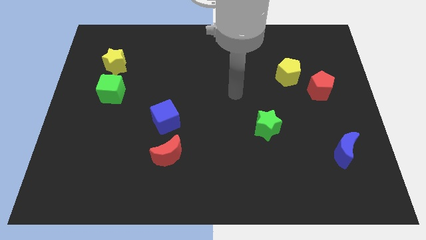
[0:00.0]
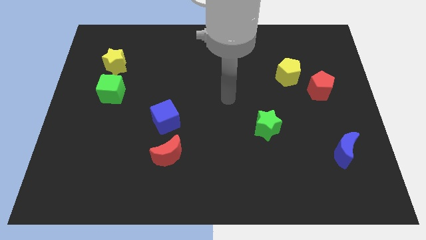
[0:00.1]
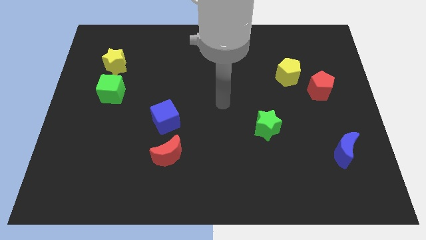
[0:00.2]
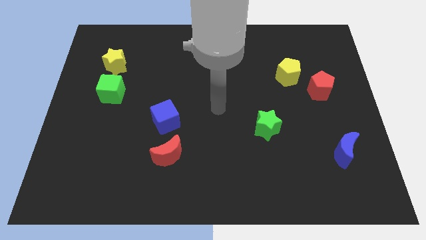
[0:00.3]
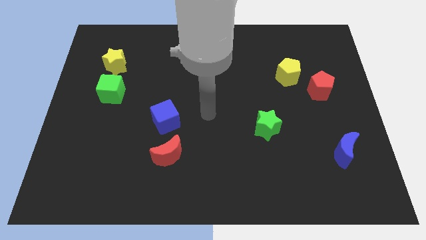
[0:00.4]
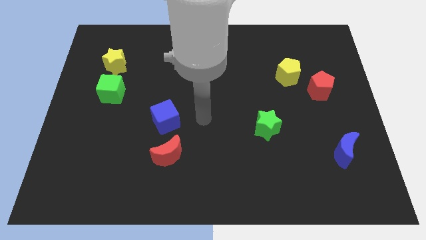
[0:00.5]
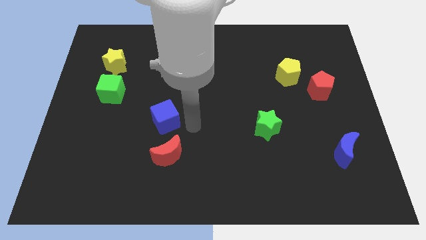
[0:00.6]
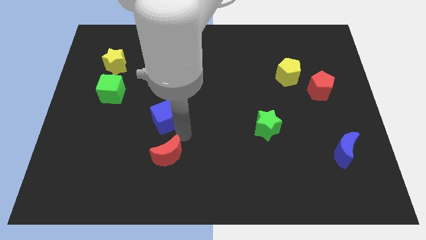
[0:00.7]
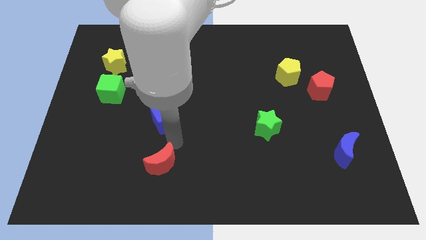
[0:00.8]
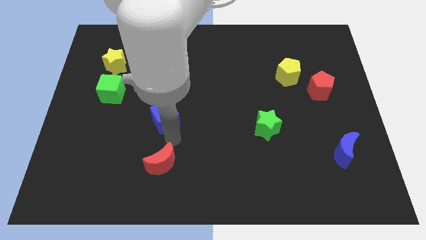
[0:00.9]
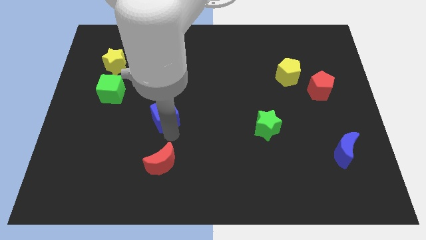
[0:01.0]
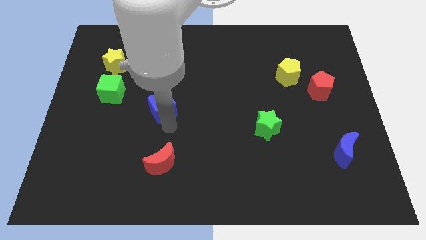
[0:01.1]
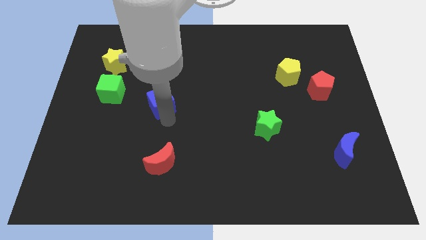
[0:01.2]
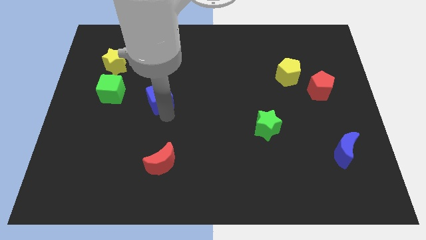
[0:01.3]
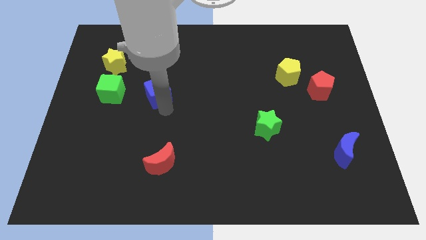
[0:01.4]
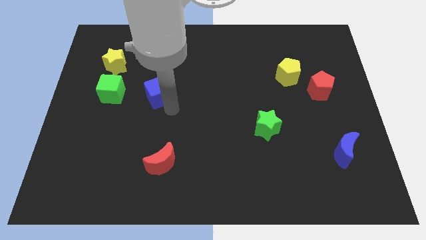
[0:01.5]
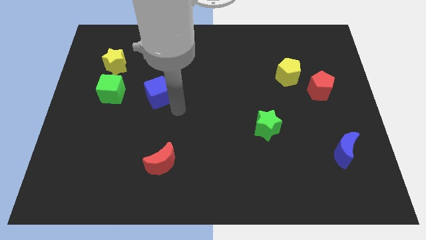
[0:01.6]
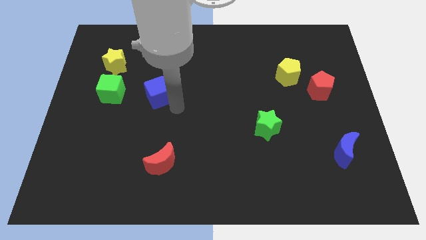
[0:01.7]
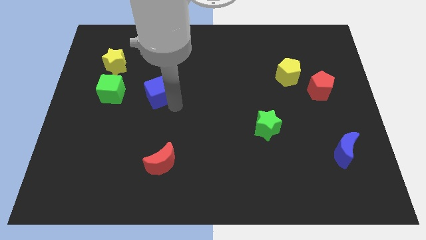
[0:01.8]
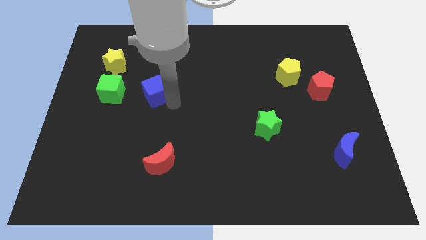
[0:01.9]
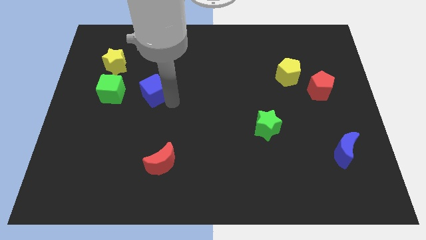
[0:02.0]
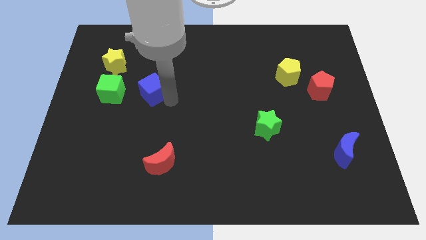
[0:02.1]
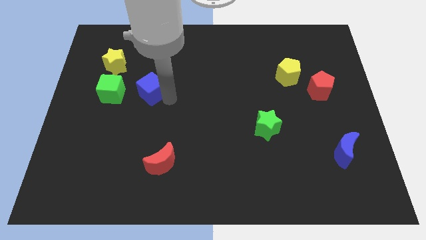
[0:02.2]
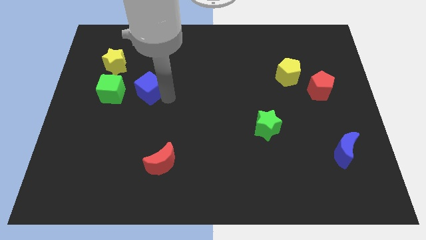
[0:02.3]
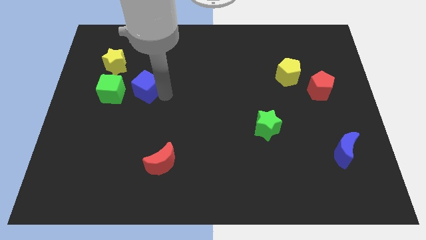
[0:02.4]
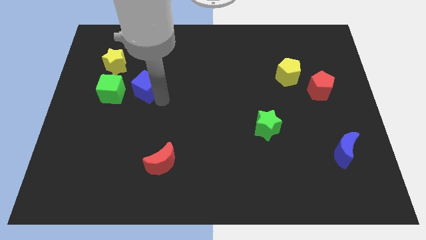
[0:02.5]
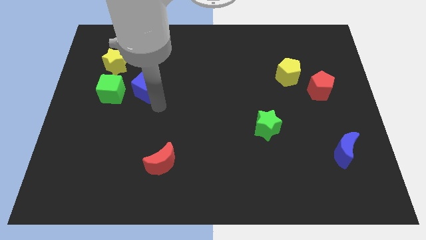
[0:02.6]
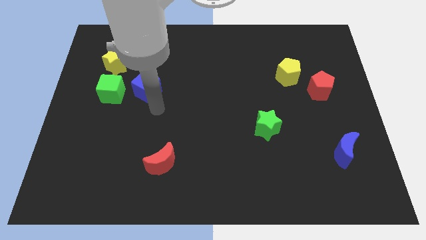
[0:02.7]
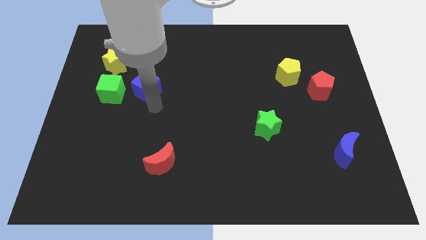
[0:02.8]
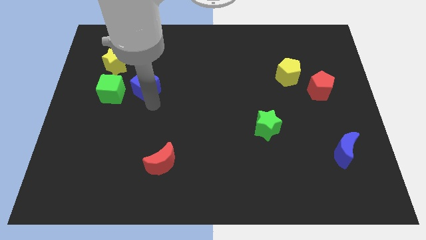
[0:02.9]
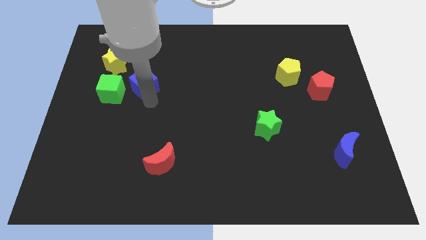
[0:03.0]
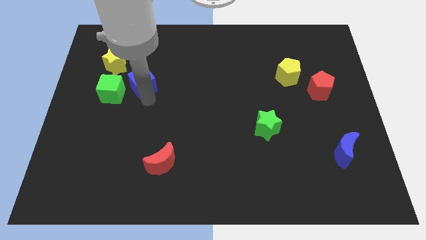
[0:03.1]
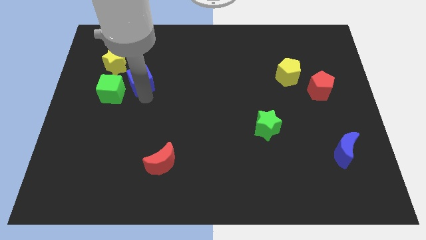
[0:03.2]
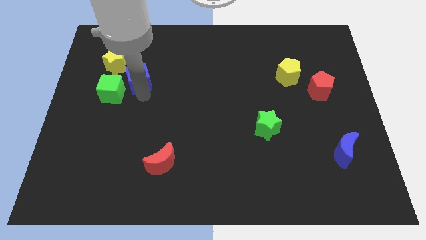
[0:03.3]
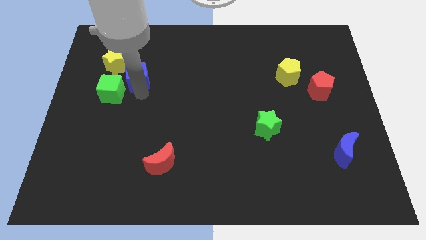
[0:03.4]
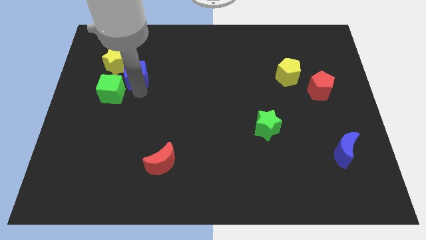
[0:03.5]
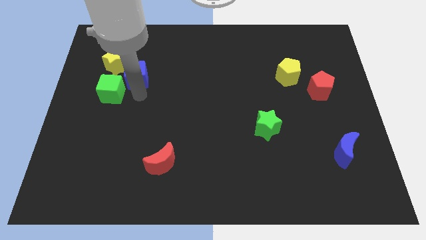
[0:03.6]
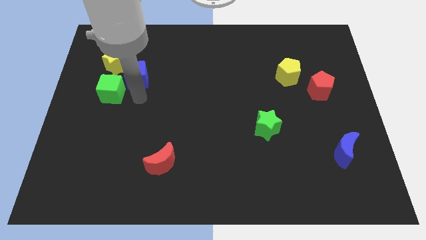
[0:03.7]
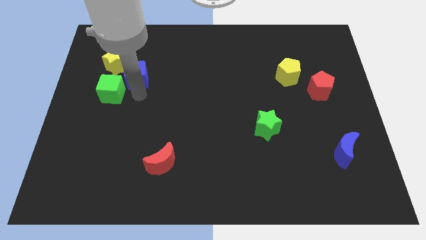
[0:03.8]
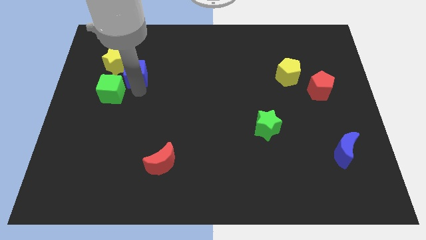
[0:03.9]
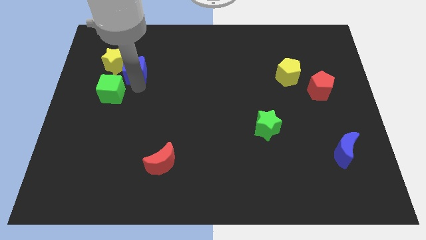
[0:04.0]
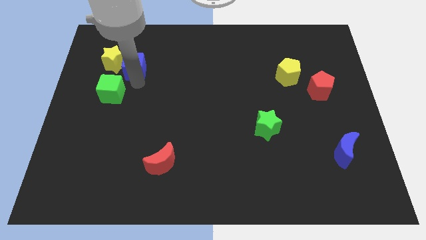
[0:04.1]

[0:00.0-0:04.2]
slide the blue cube towards the yellow star

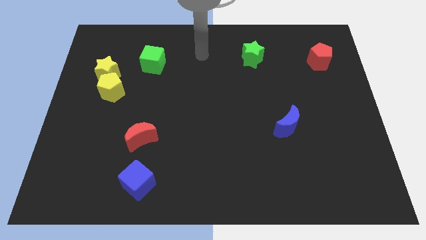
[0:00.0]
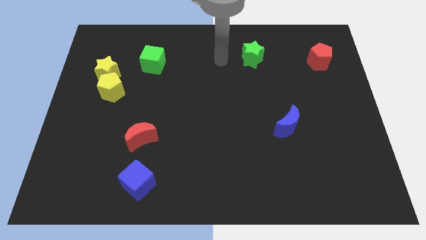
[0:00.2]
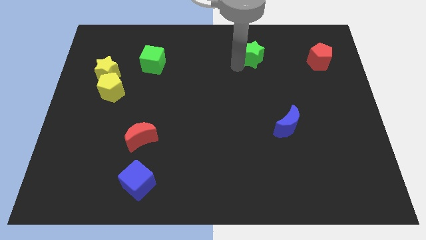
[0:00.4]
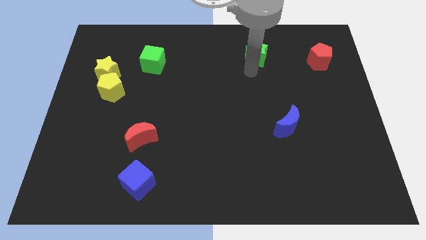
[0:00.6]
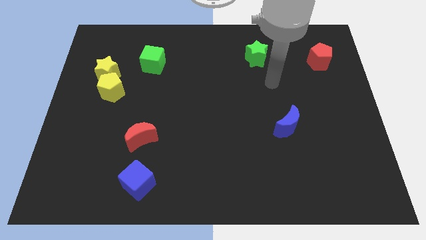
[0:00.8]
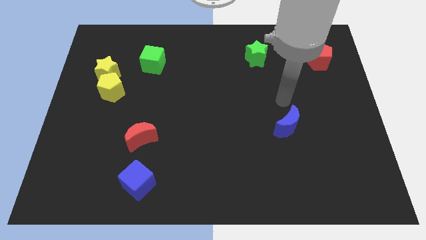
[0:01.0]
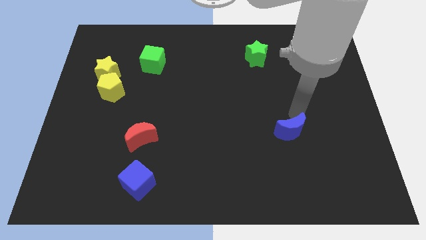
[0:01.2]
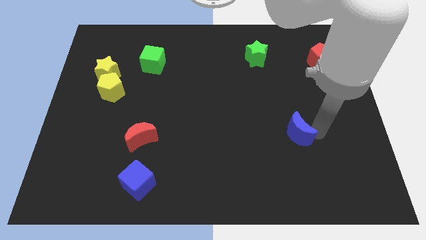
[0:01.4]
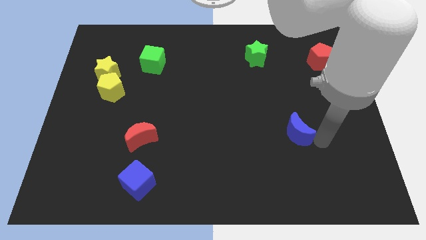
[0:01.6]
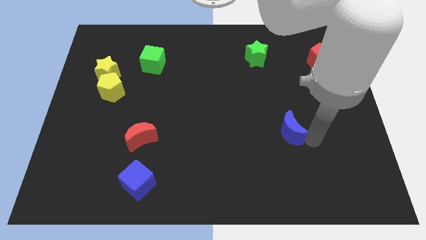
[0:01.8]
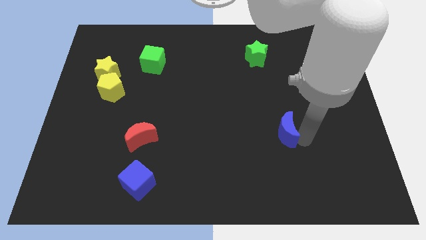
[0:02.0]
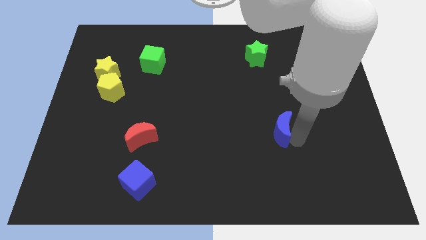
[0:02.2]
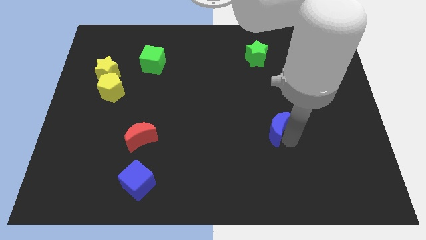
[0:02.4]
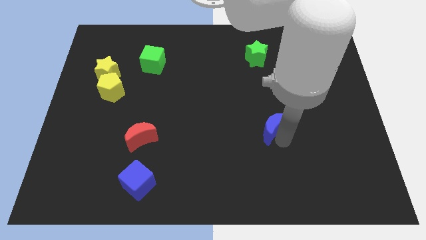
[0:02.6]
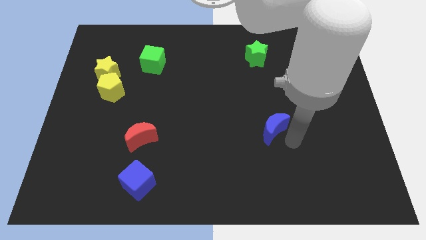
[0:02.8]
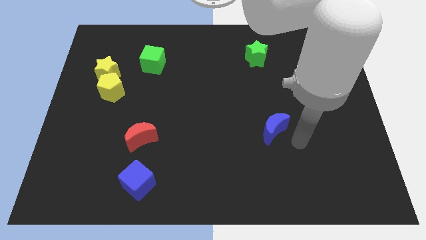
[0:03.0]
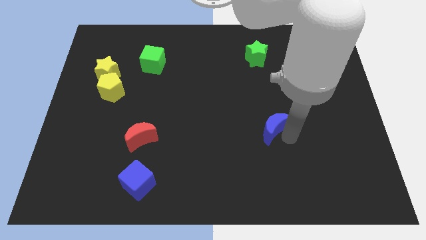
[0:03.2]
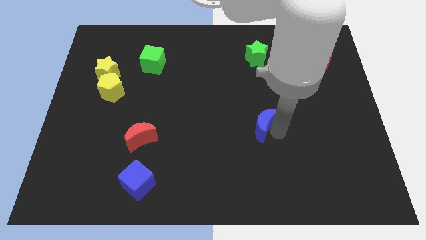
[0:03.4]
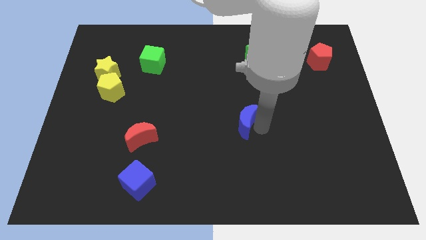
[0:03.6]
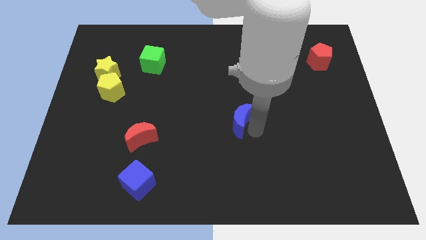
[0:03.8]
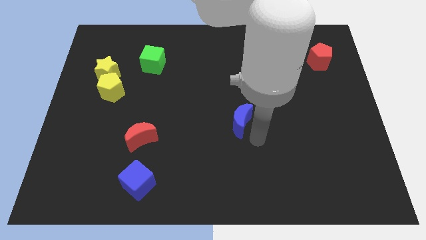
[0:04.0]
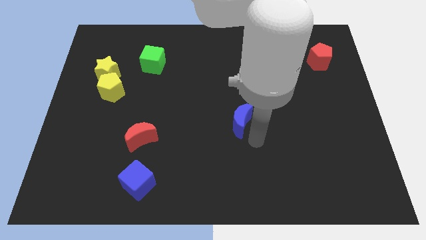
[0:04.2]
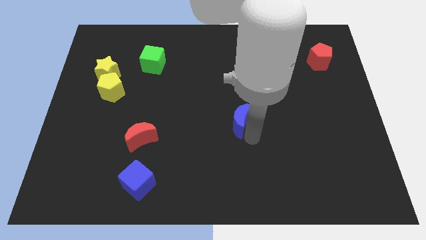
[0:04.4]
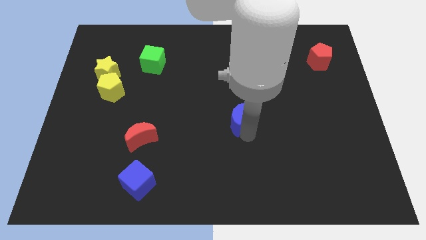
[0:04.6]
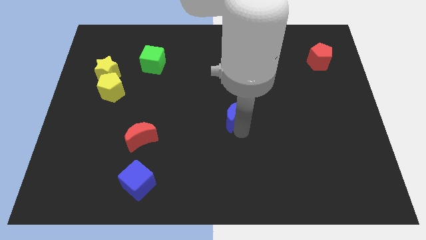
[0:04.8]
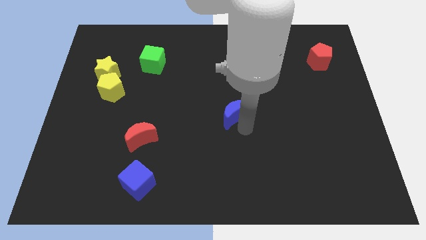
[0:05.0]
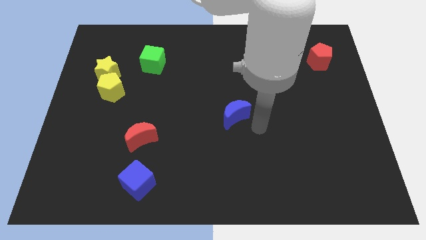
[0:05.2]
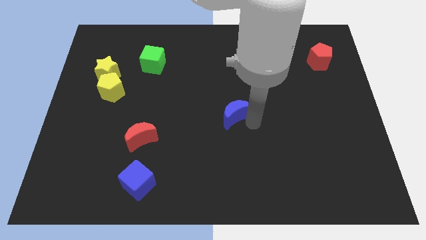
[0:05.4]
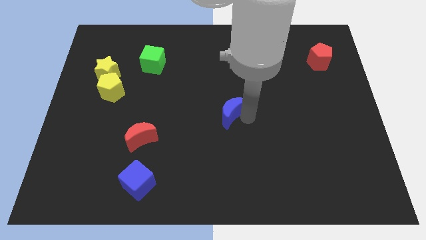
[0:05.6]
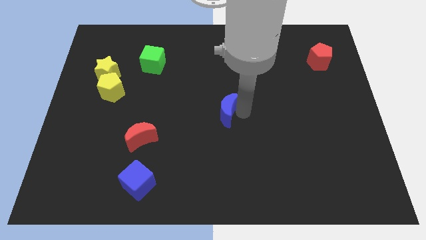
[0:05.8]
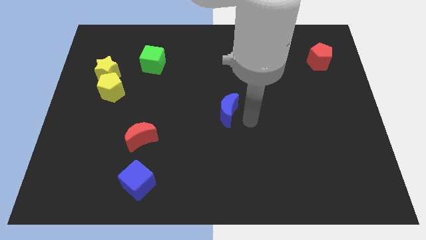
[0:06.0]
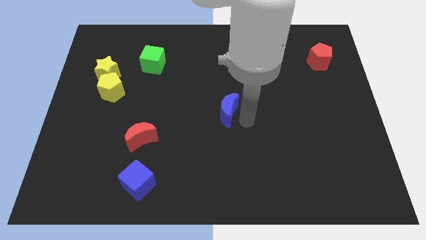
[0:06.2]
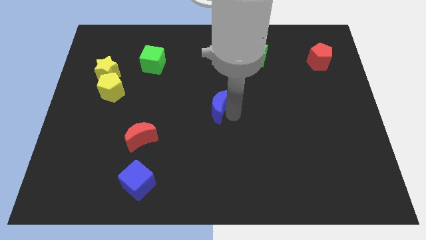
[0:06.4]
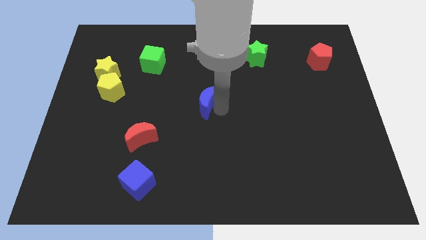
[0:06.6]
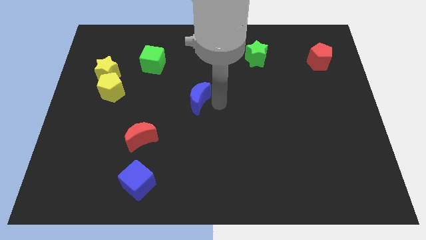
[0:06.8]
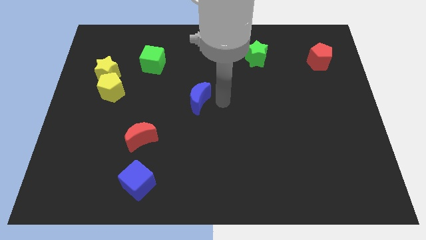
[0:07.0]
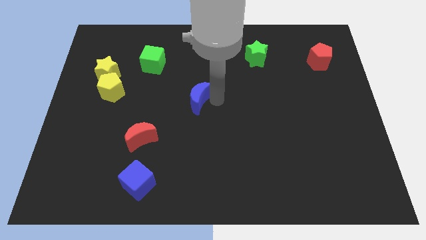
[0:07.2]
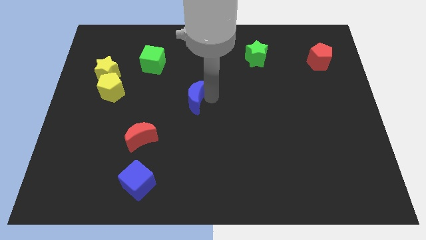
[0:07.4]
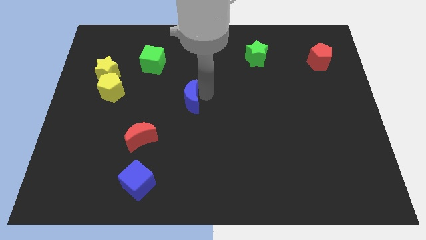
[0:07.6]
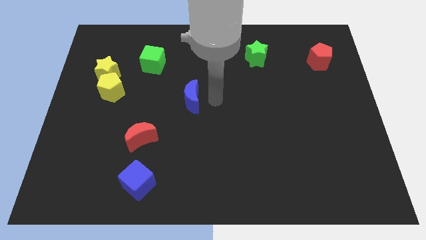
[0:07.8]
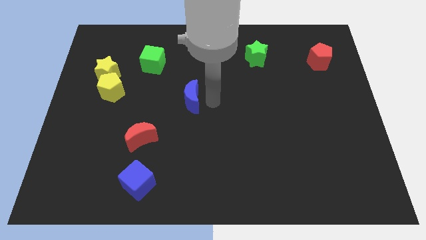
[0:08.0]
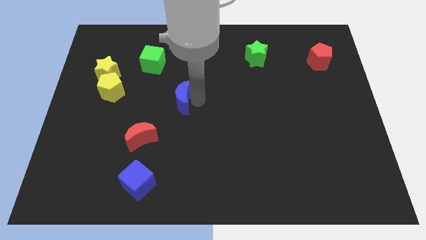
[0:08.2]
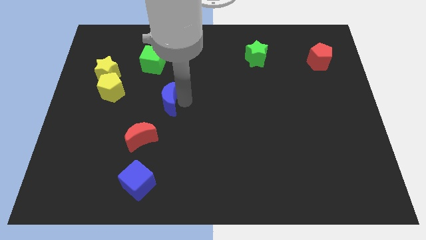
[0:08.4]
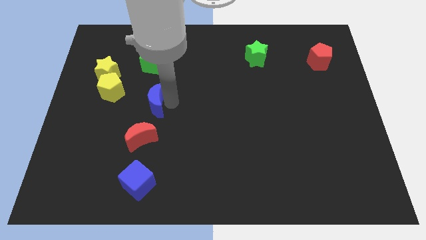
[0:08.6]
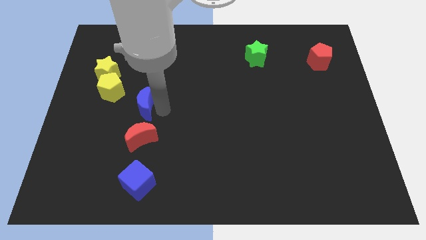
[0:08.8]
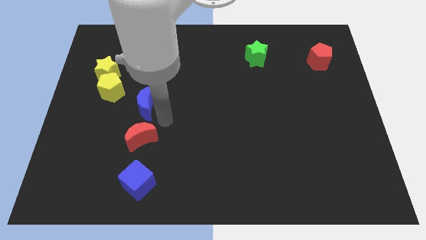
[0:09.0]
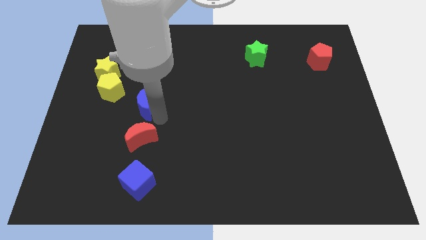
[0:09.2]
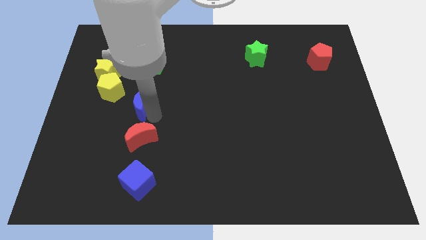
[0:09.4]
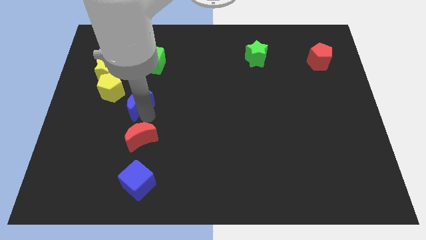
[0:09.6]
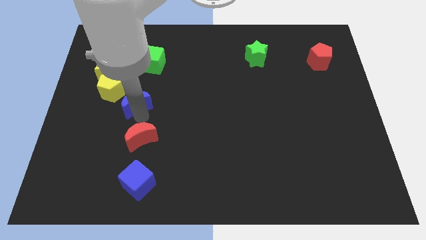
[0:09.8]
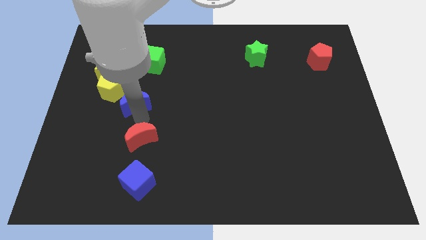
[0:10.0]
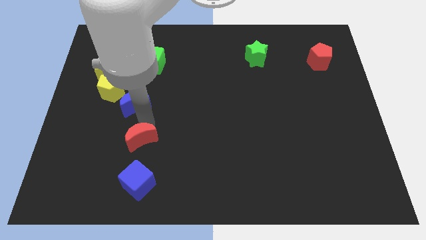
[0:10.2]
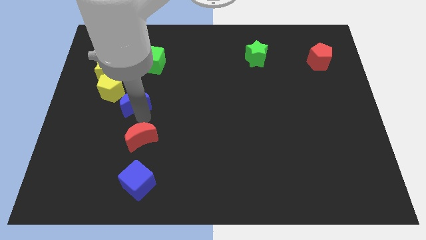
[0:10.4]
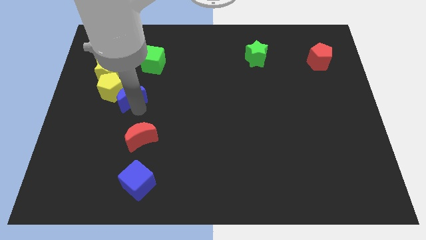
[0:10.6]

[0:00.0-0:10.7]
push the blue moon to the yellow pentagon
